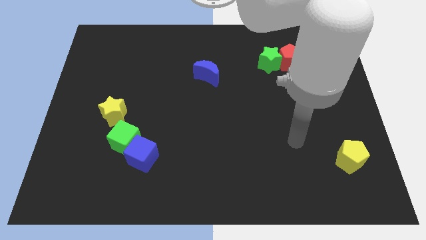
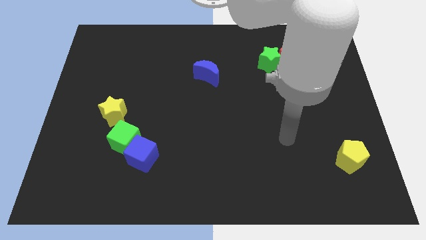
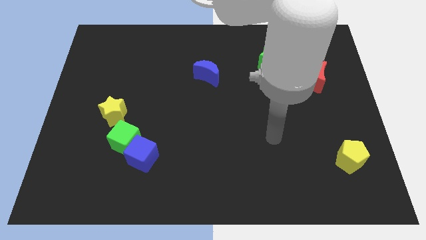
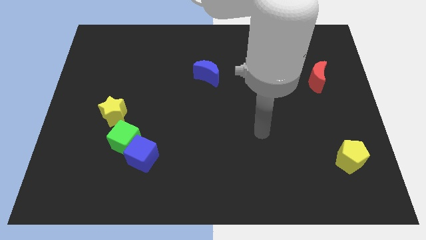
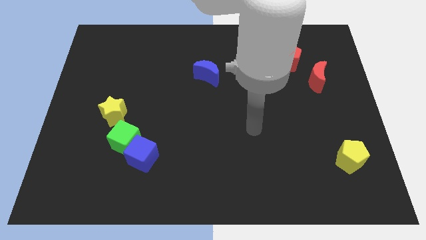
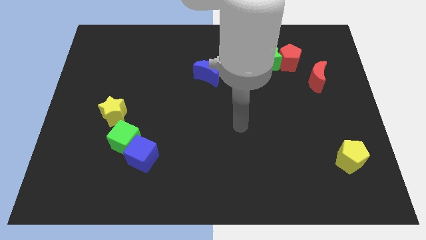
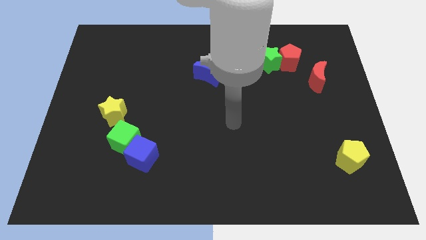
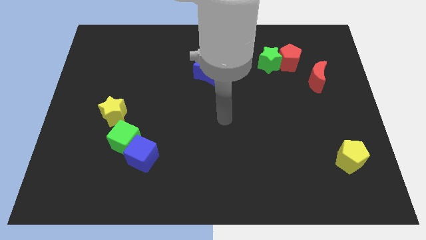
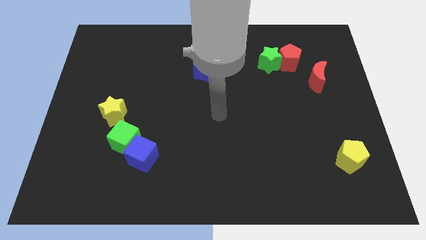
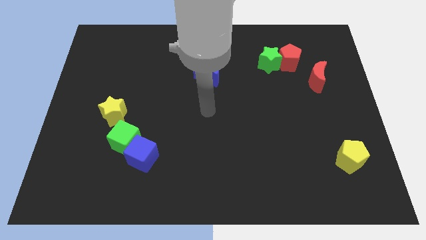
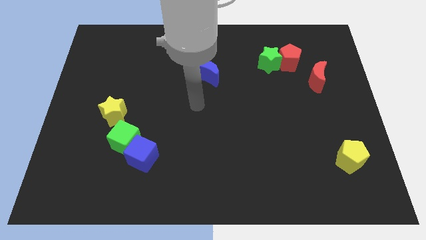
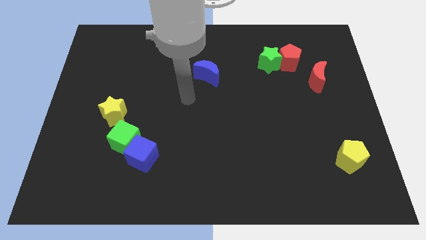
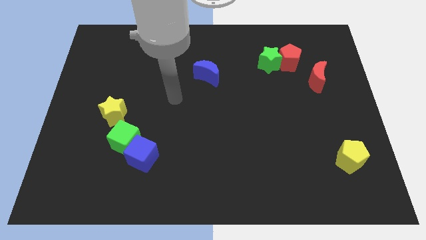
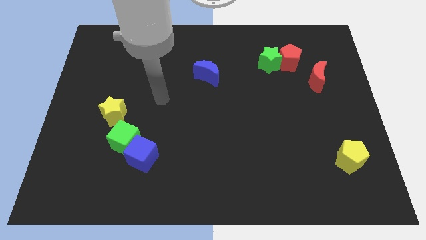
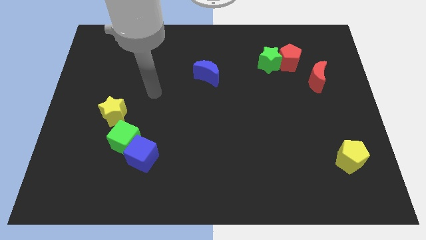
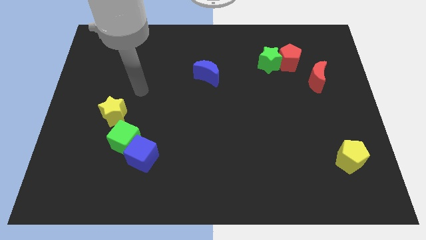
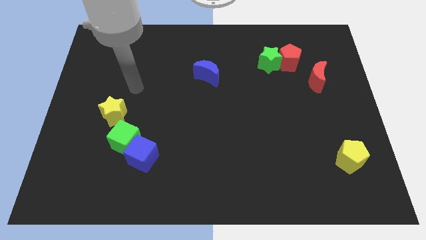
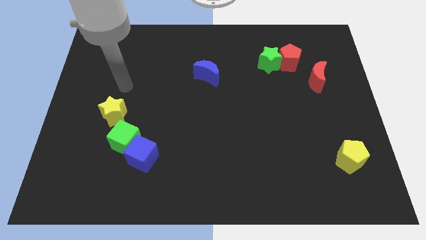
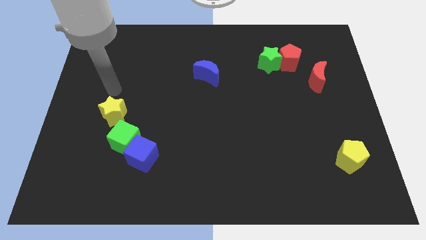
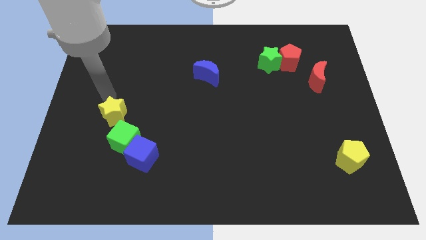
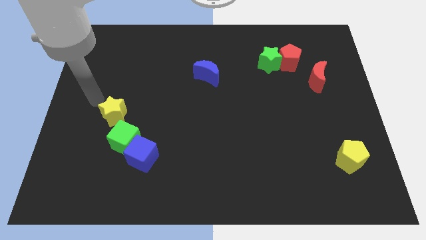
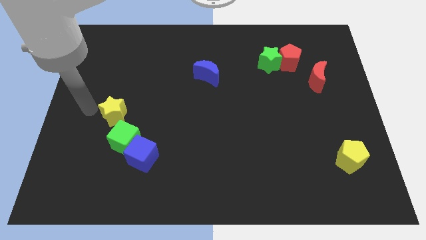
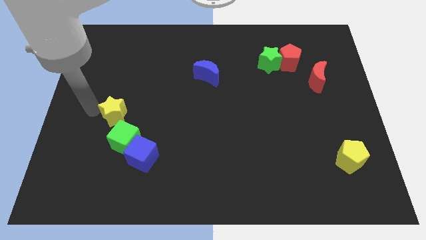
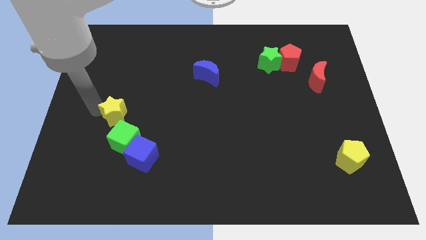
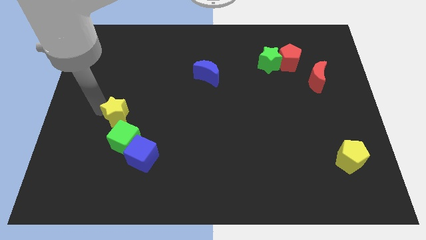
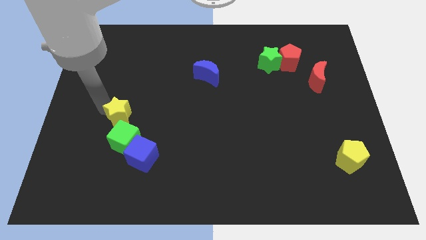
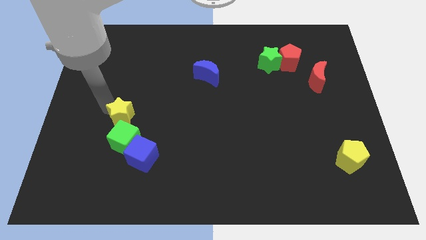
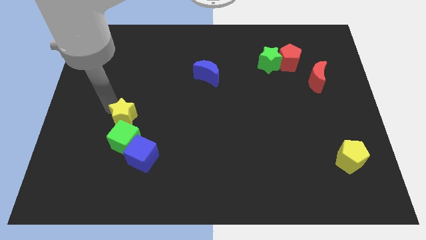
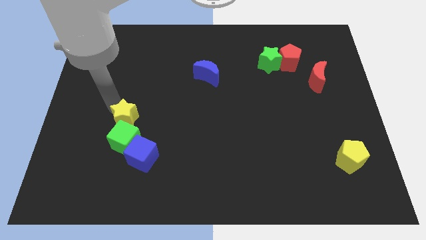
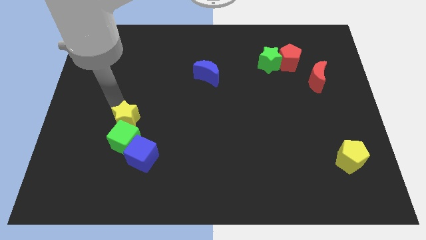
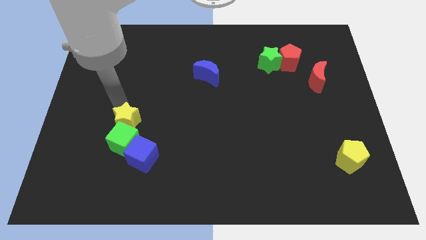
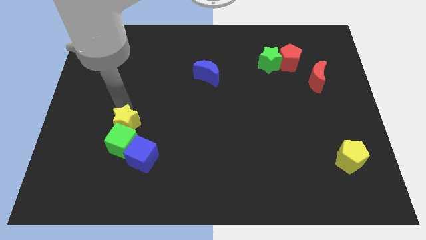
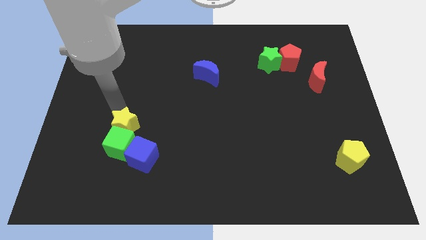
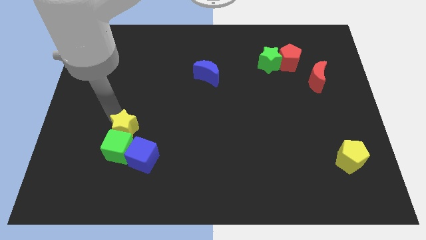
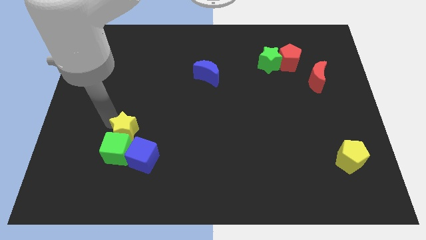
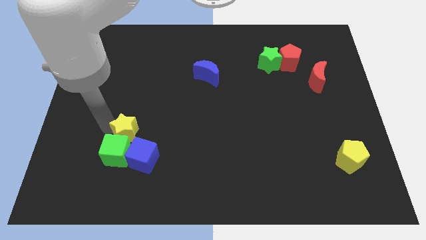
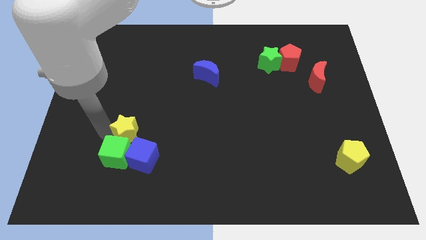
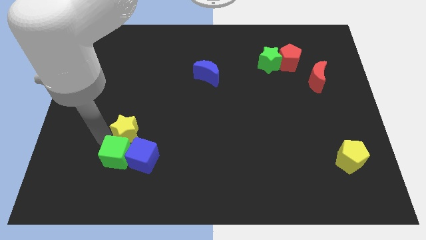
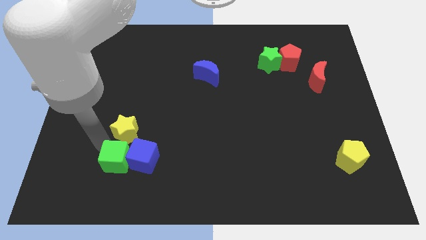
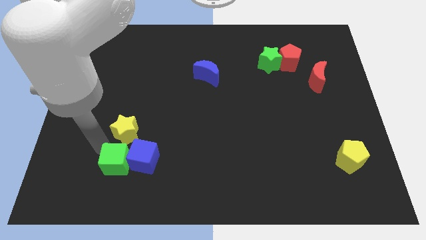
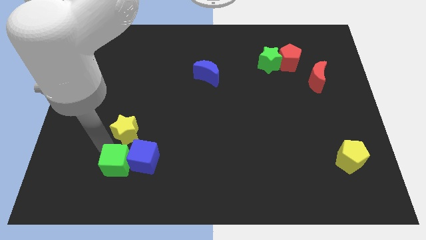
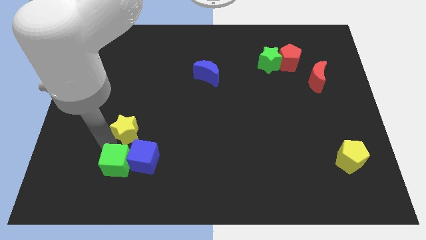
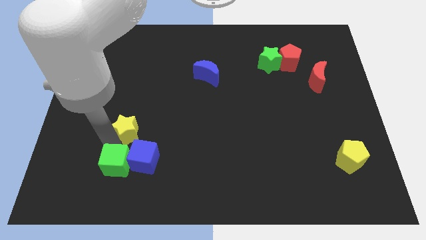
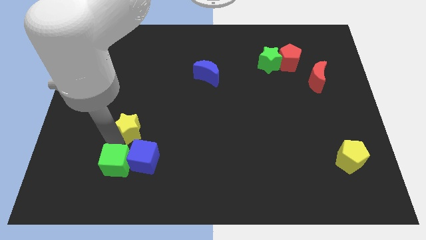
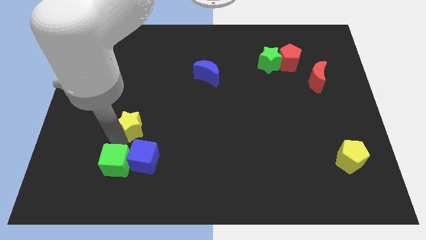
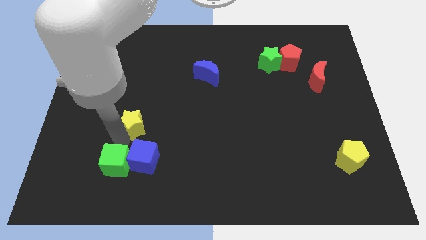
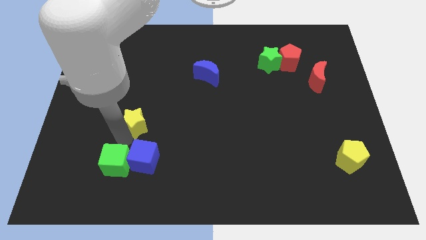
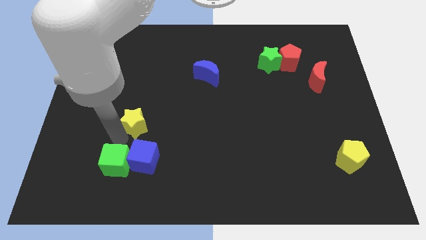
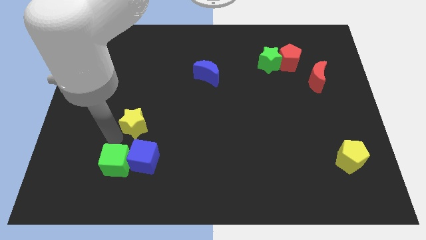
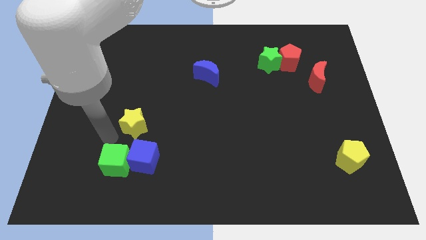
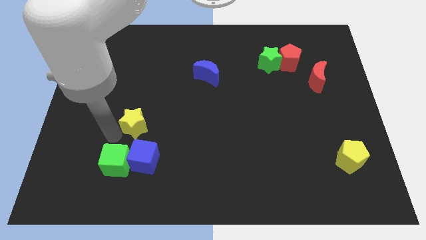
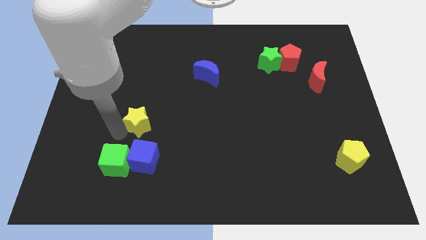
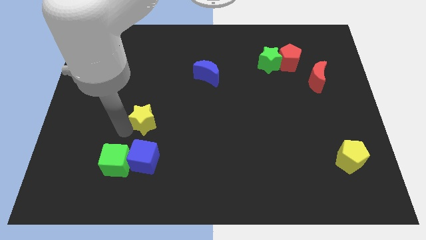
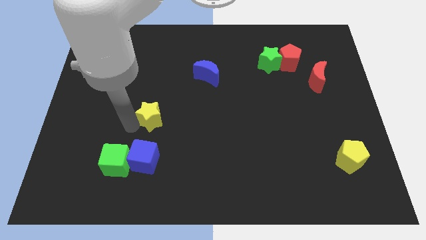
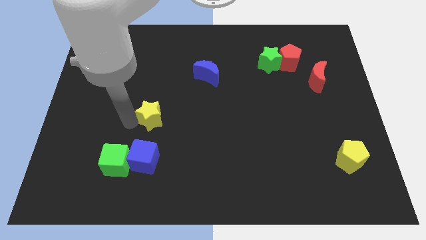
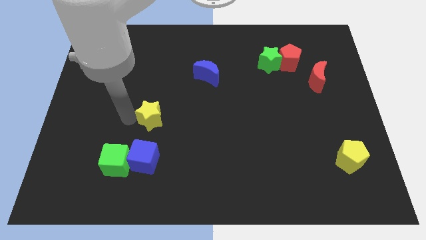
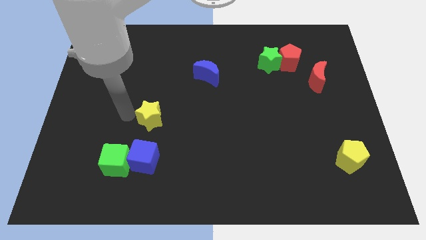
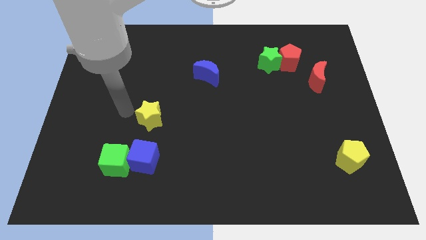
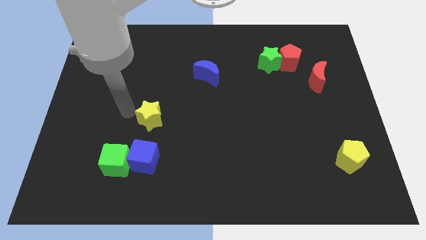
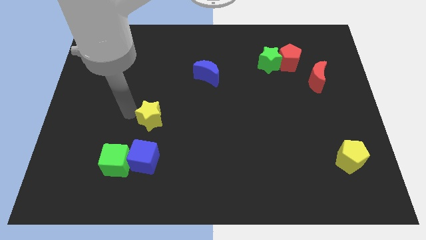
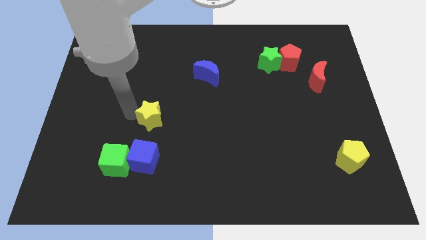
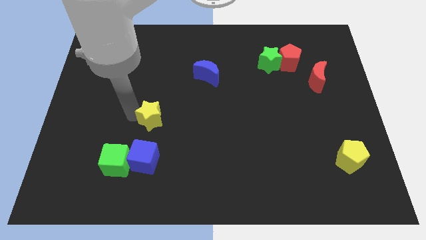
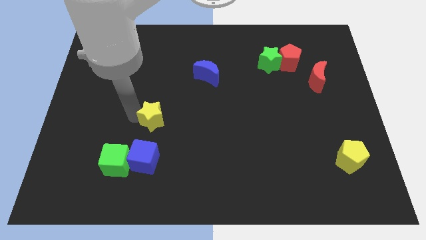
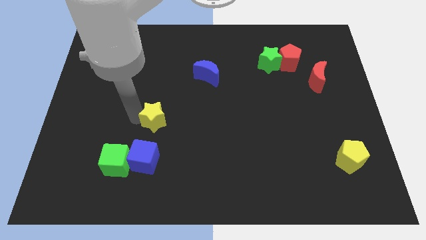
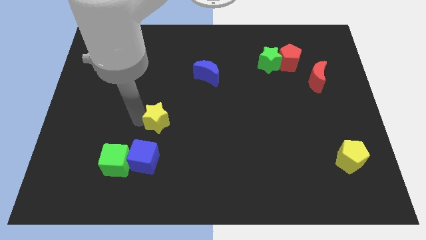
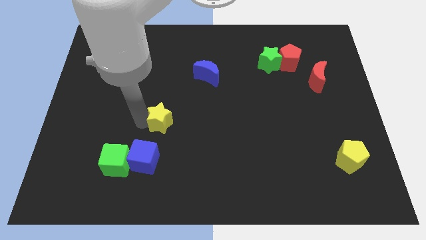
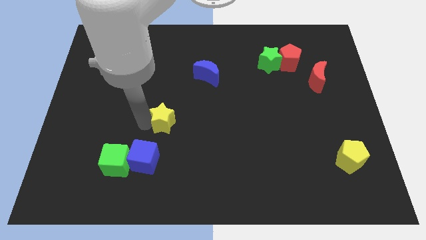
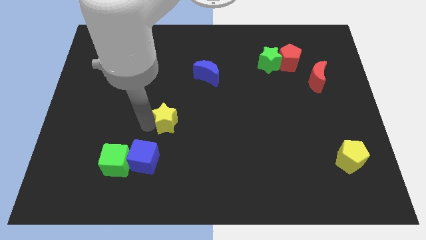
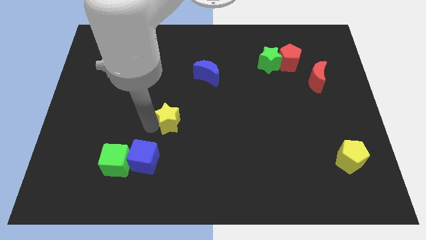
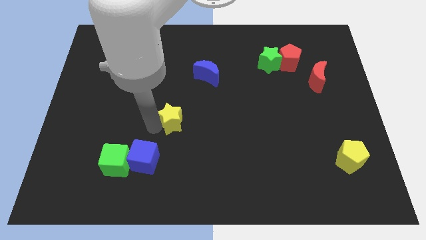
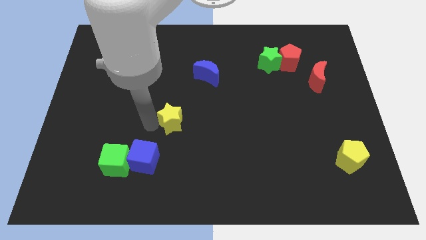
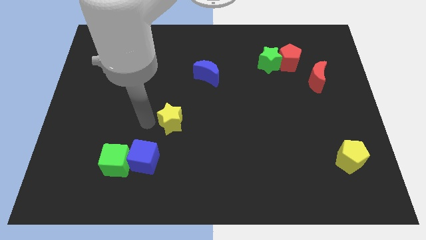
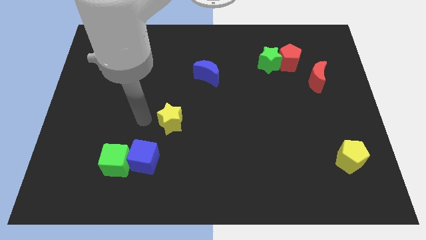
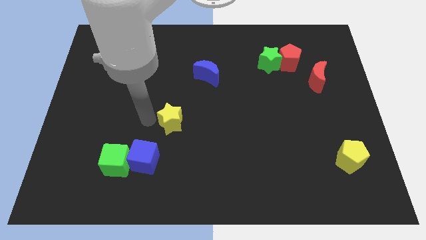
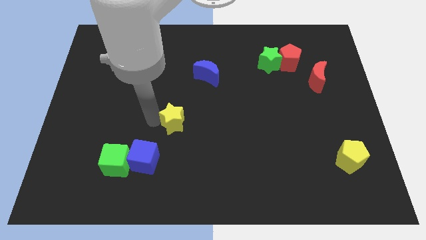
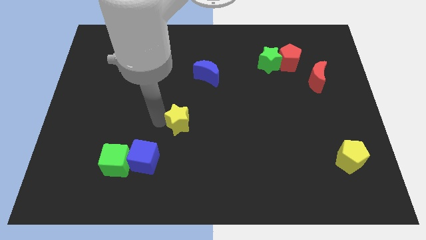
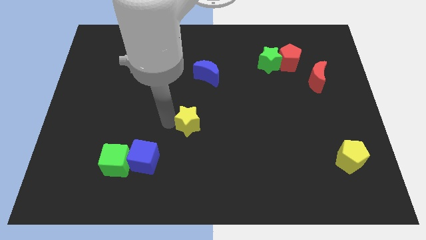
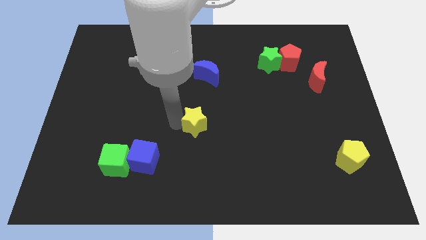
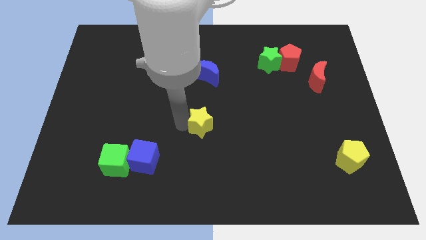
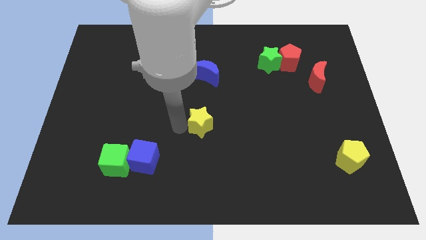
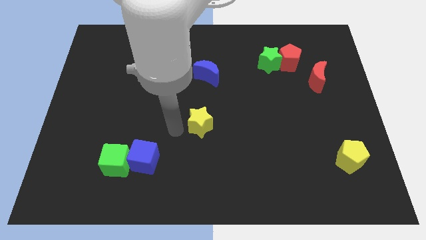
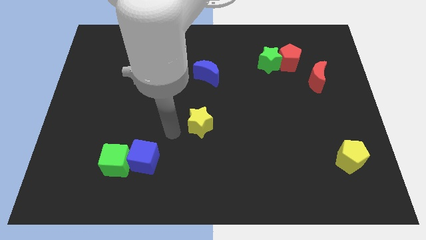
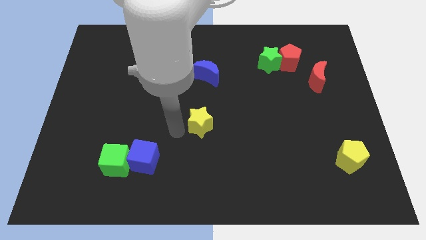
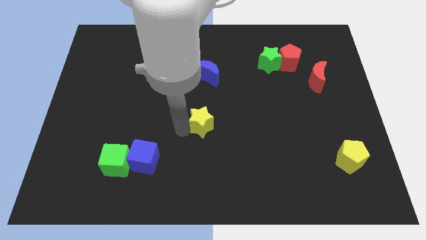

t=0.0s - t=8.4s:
push the yellow star right
